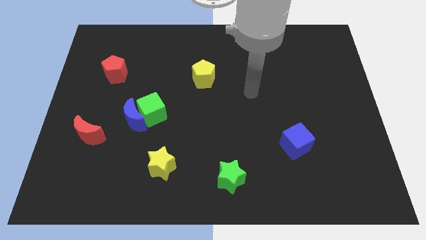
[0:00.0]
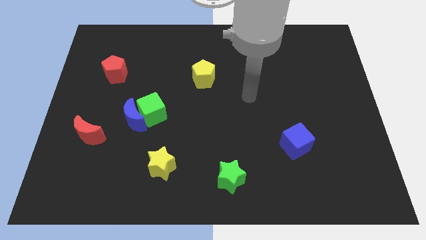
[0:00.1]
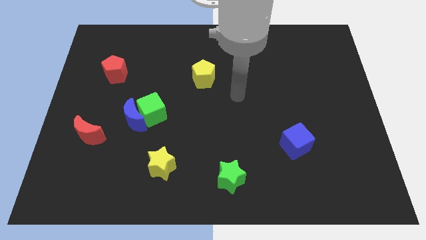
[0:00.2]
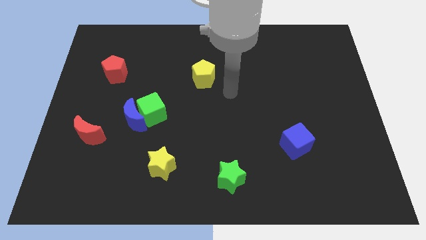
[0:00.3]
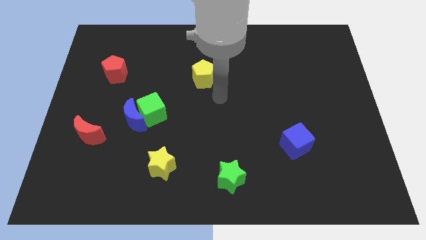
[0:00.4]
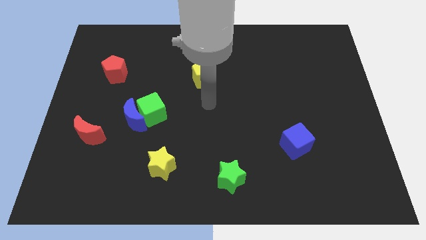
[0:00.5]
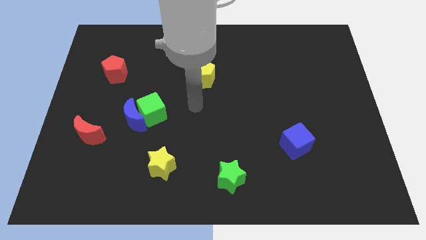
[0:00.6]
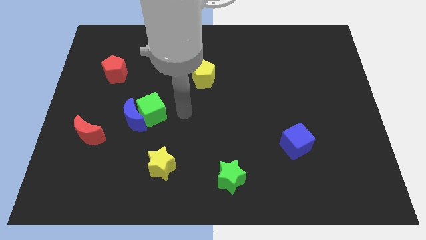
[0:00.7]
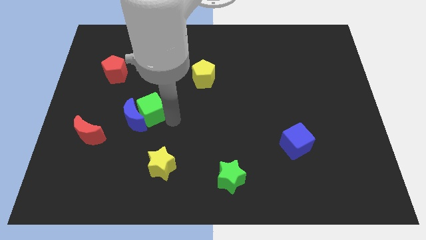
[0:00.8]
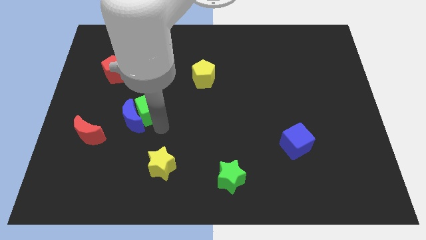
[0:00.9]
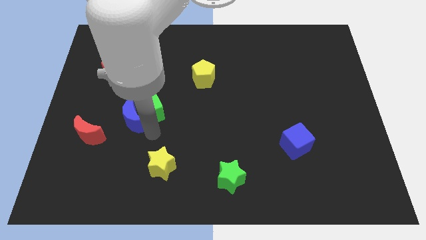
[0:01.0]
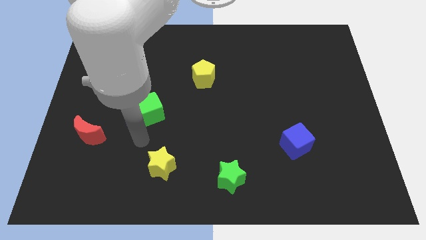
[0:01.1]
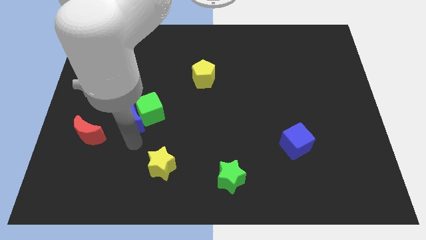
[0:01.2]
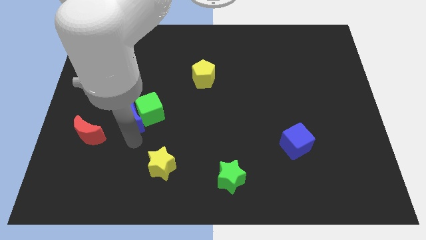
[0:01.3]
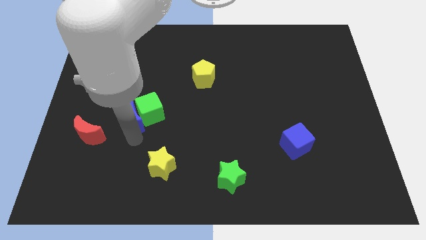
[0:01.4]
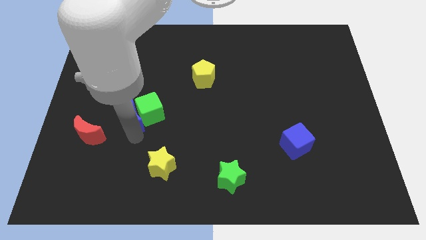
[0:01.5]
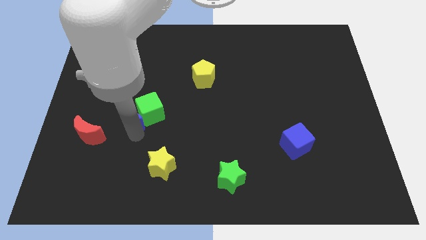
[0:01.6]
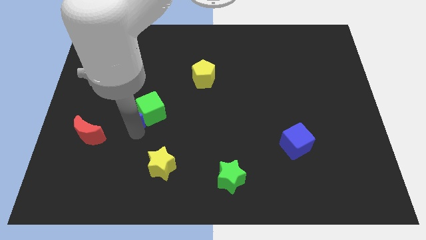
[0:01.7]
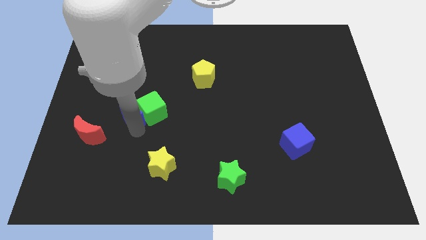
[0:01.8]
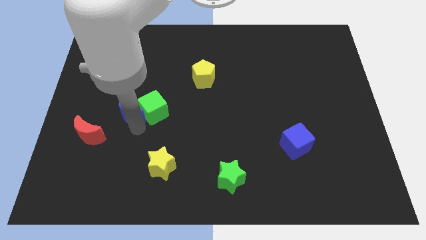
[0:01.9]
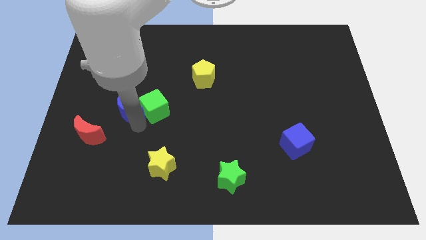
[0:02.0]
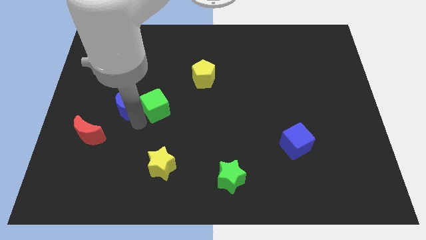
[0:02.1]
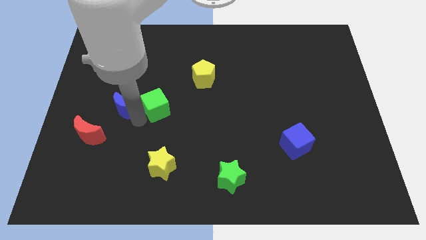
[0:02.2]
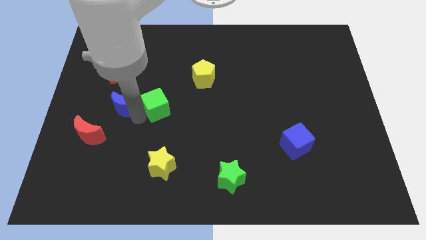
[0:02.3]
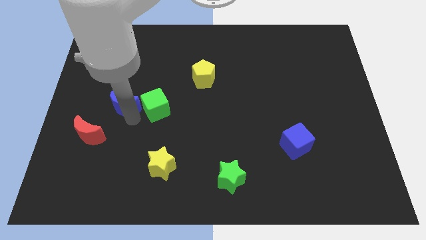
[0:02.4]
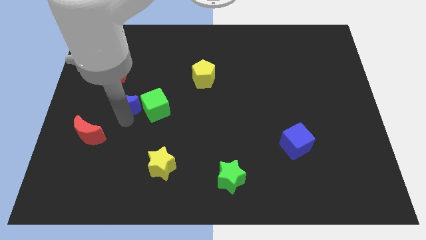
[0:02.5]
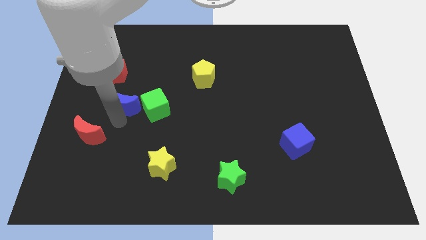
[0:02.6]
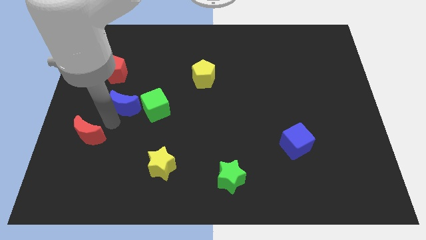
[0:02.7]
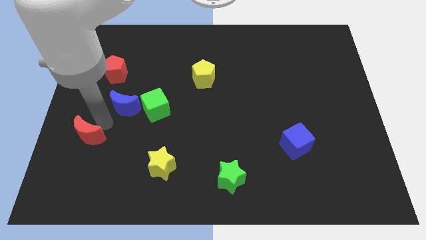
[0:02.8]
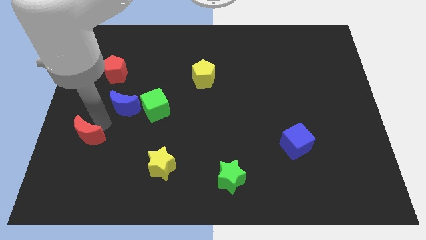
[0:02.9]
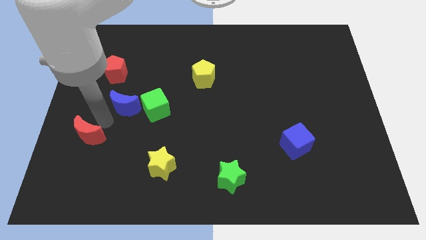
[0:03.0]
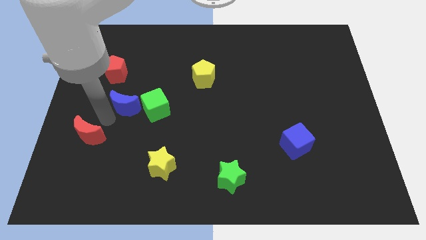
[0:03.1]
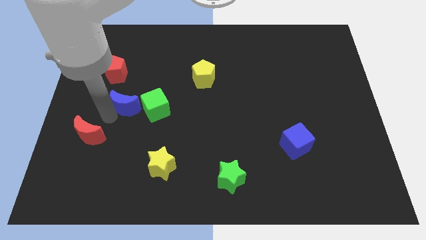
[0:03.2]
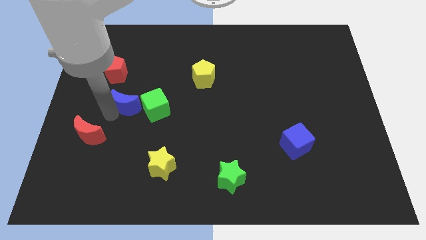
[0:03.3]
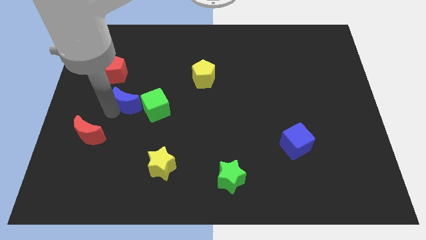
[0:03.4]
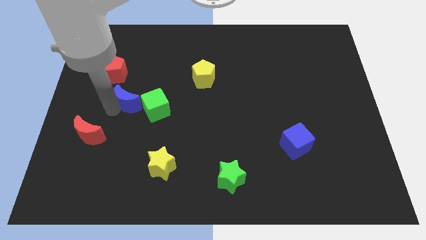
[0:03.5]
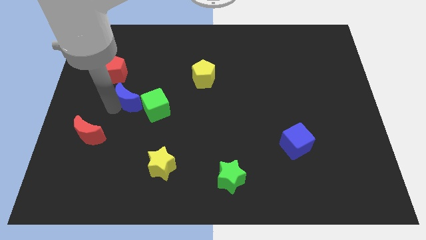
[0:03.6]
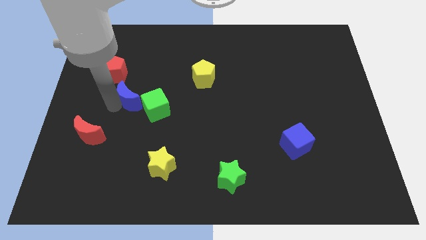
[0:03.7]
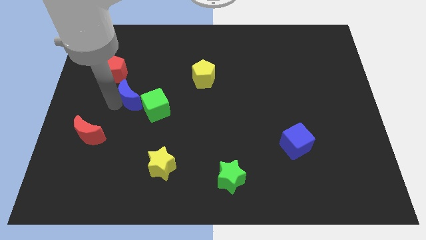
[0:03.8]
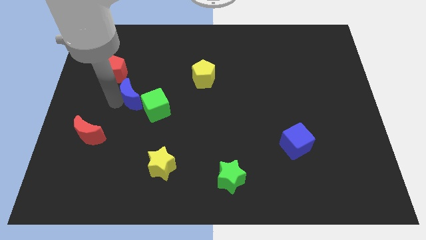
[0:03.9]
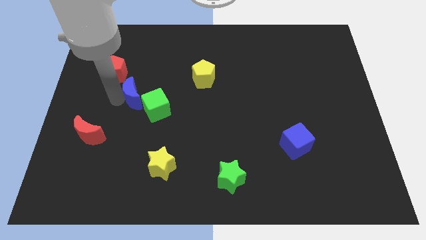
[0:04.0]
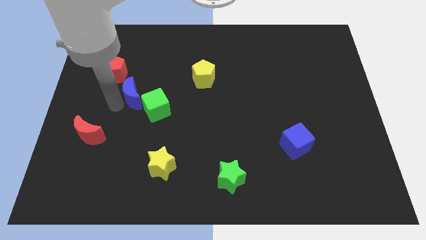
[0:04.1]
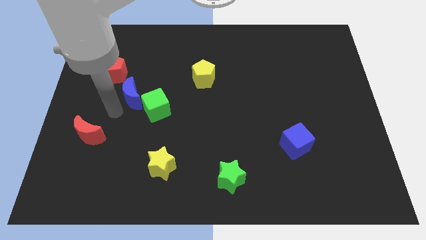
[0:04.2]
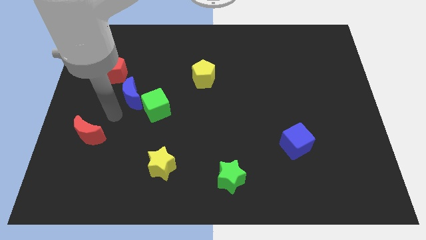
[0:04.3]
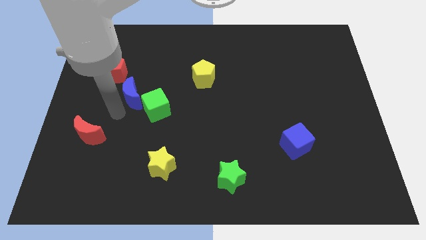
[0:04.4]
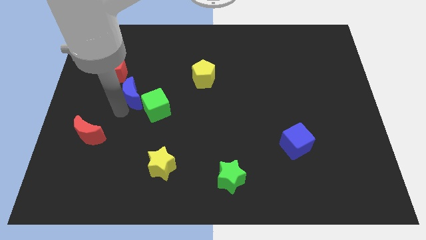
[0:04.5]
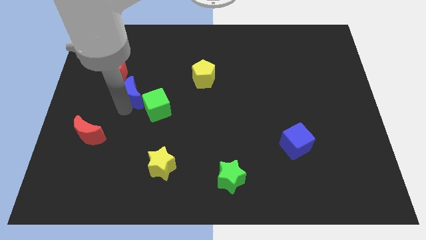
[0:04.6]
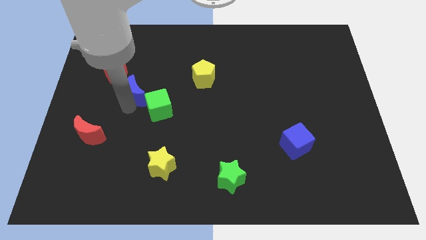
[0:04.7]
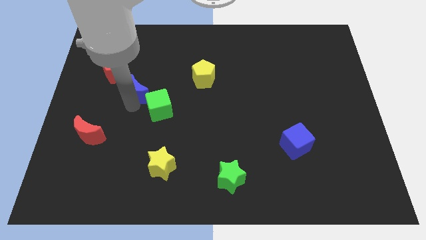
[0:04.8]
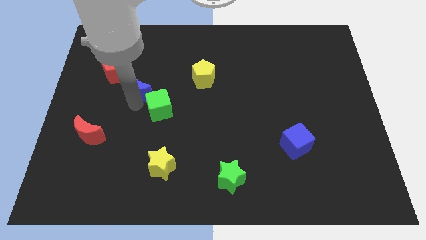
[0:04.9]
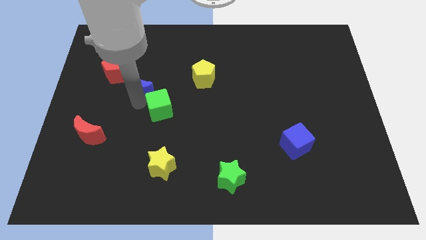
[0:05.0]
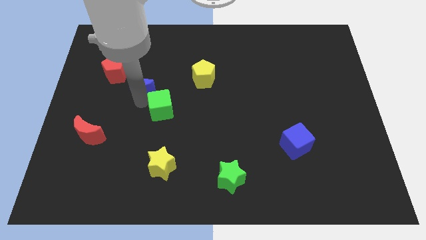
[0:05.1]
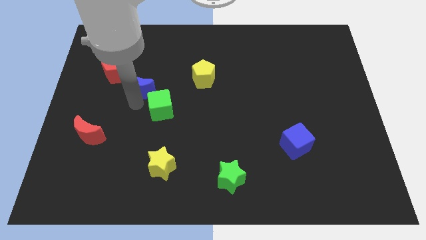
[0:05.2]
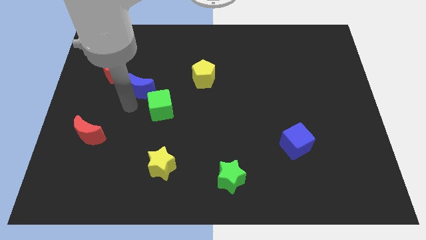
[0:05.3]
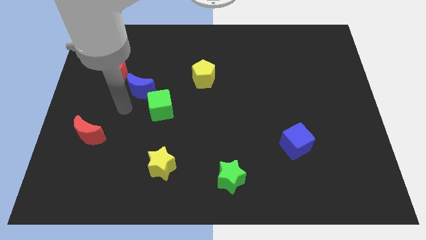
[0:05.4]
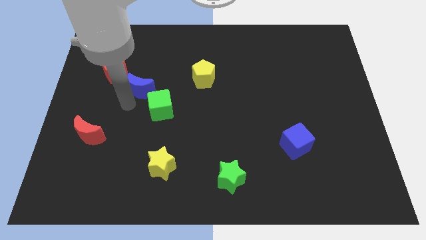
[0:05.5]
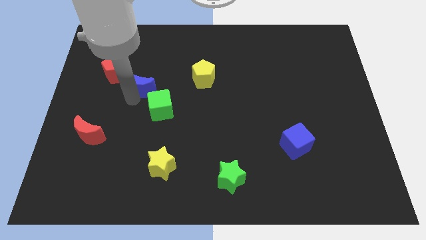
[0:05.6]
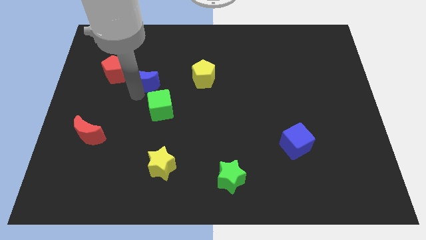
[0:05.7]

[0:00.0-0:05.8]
slide the blue moon to the right side of the red pentagon

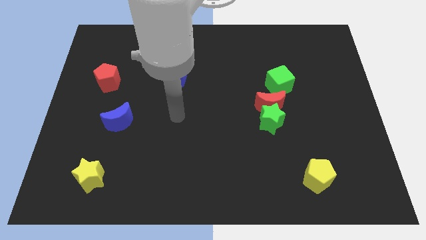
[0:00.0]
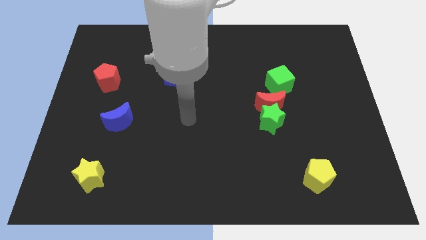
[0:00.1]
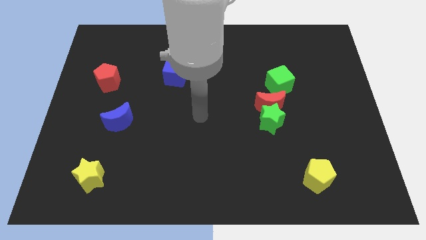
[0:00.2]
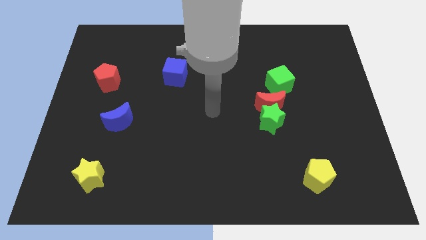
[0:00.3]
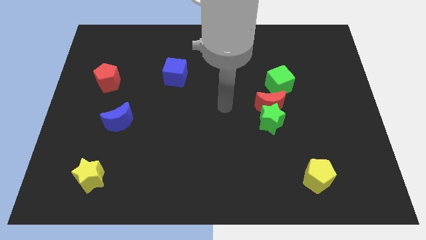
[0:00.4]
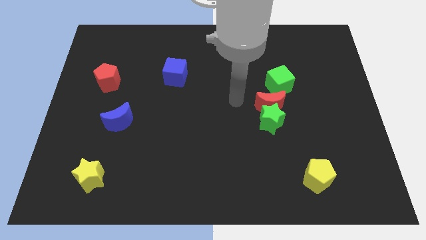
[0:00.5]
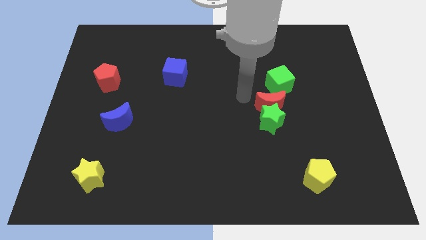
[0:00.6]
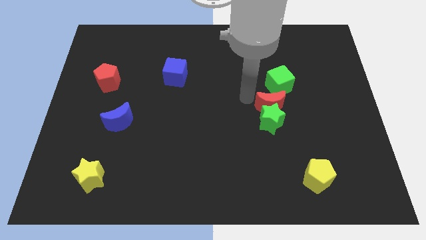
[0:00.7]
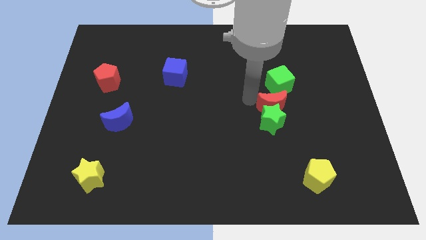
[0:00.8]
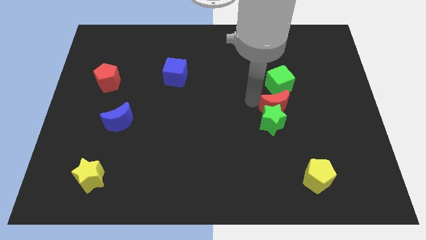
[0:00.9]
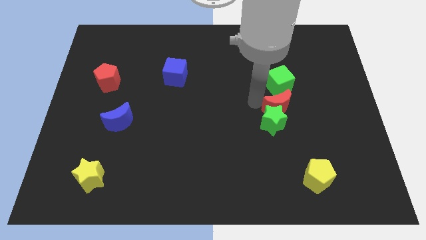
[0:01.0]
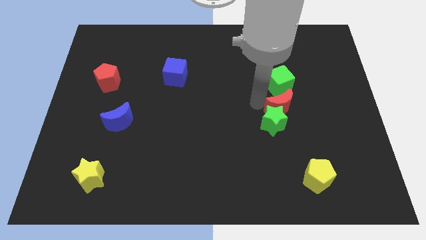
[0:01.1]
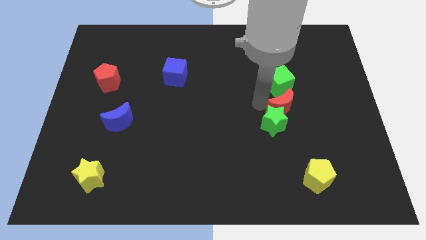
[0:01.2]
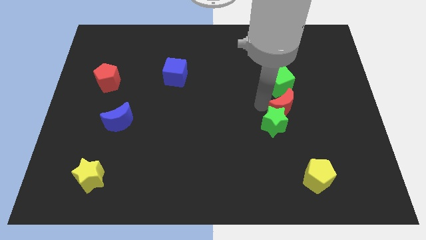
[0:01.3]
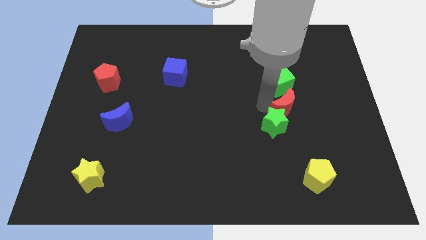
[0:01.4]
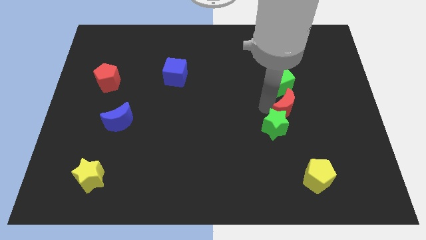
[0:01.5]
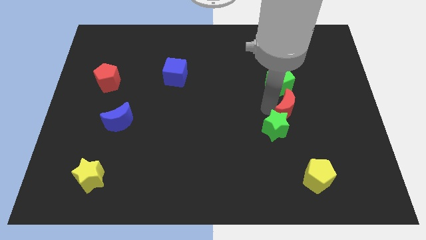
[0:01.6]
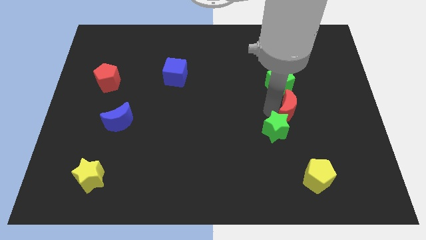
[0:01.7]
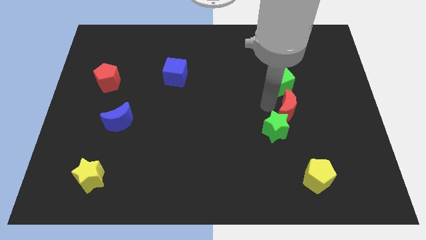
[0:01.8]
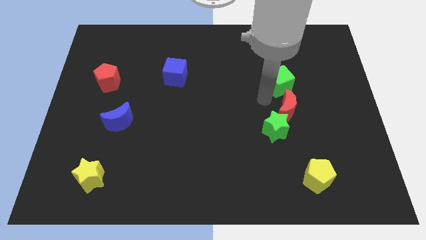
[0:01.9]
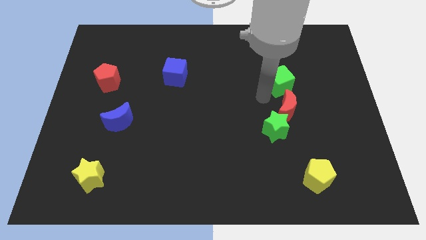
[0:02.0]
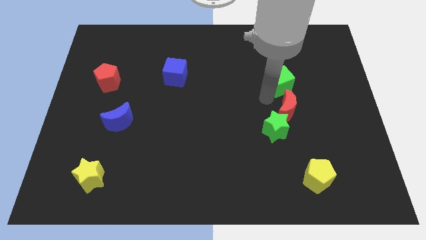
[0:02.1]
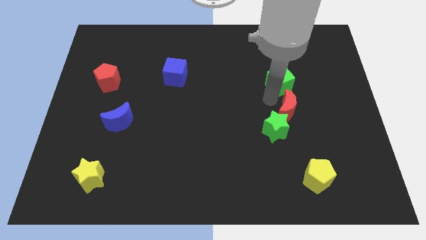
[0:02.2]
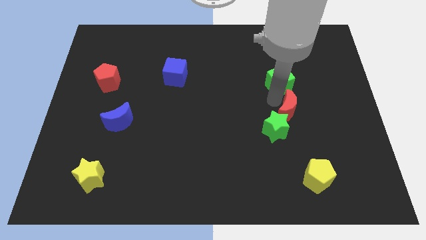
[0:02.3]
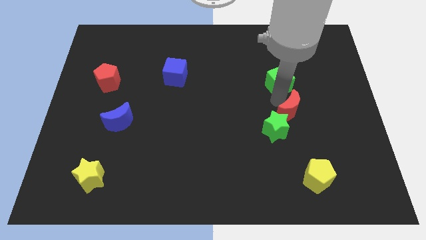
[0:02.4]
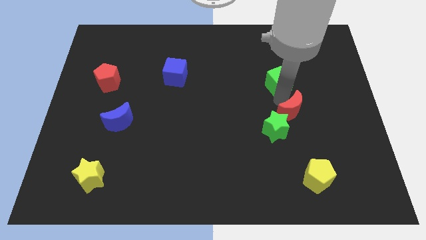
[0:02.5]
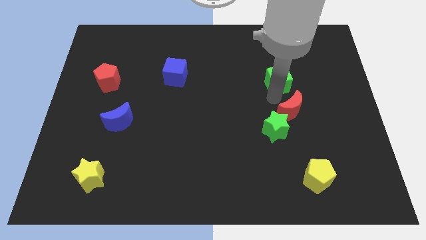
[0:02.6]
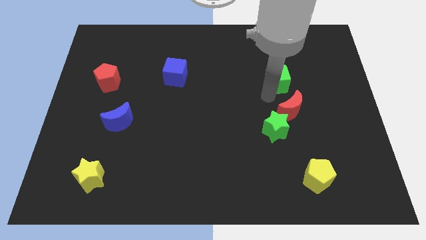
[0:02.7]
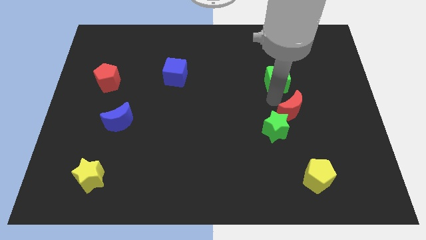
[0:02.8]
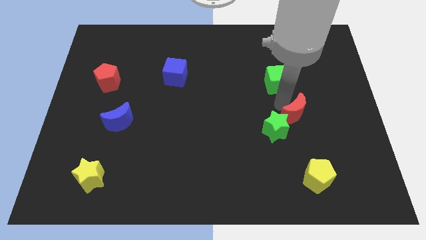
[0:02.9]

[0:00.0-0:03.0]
put the red moon to the right of the green star
